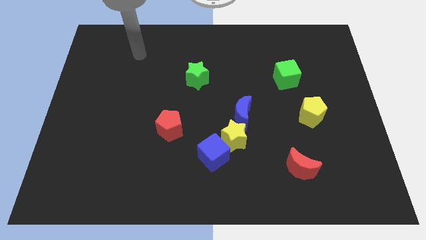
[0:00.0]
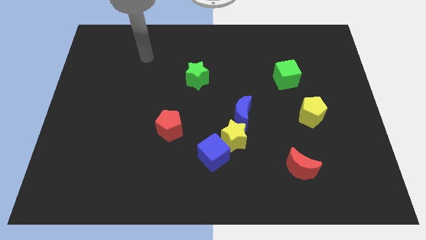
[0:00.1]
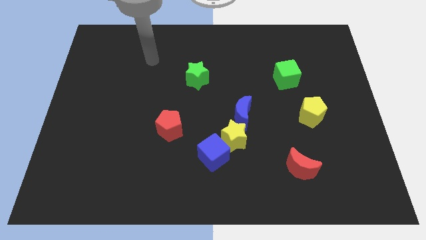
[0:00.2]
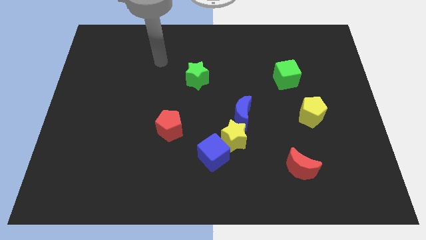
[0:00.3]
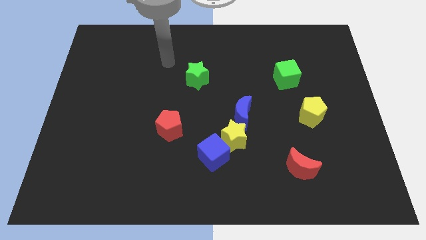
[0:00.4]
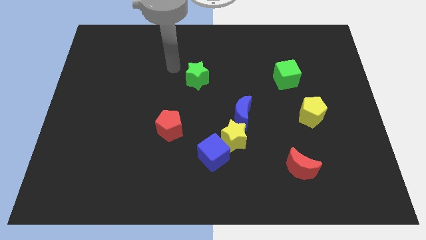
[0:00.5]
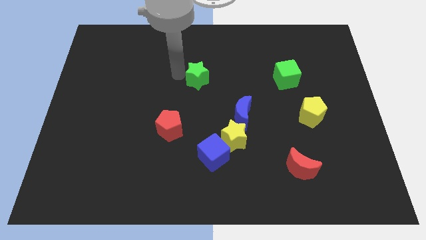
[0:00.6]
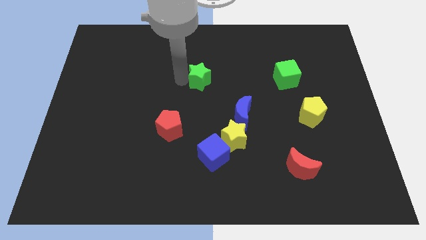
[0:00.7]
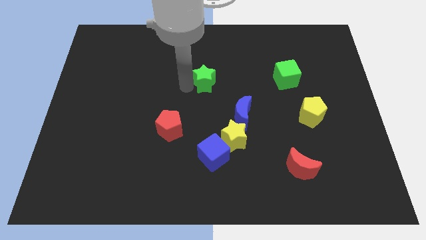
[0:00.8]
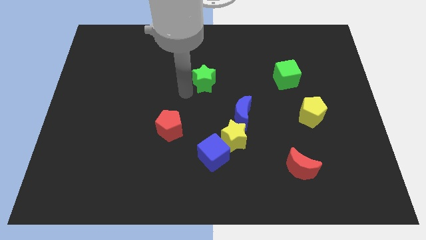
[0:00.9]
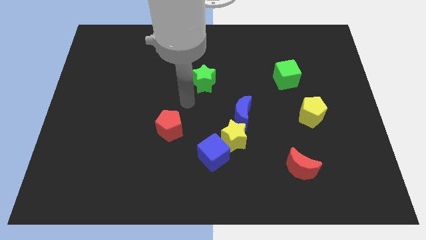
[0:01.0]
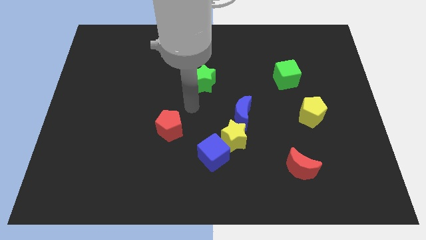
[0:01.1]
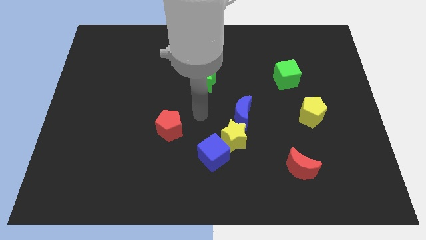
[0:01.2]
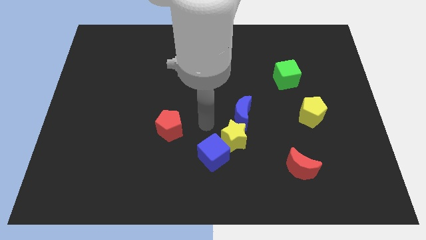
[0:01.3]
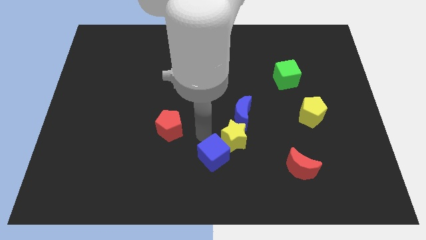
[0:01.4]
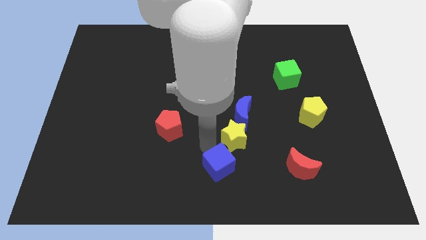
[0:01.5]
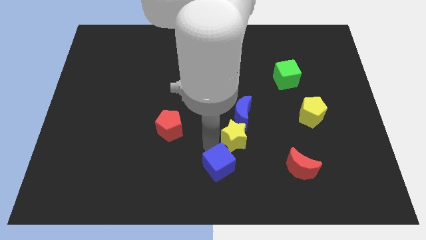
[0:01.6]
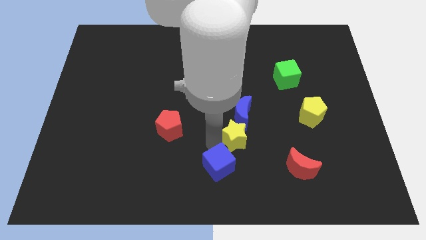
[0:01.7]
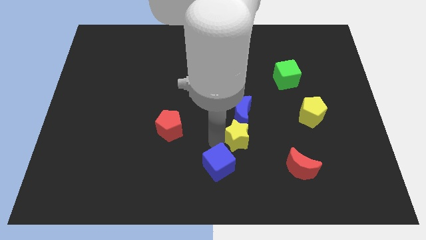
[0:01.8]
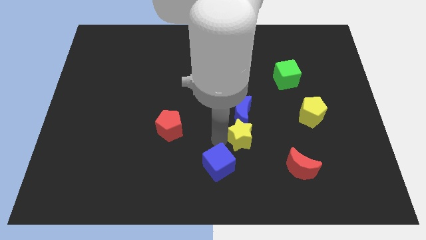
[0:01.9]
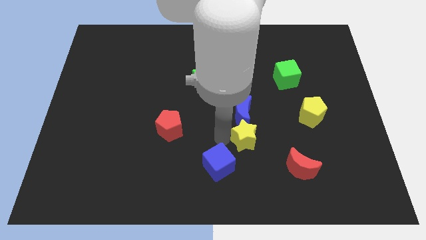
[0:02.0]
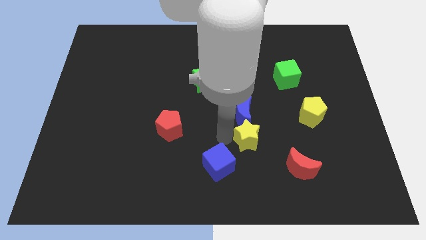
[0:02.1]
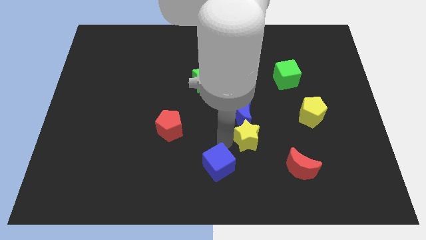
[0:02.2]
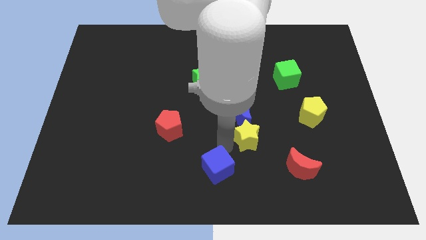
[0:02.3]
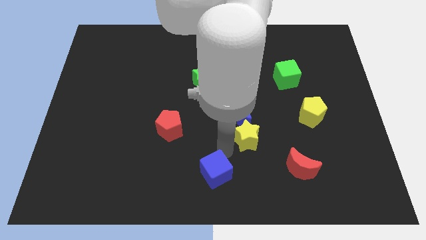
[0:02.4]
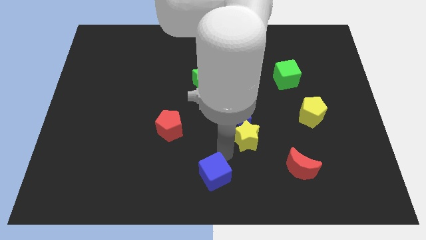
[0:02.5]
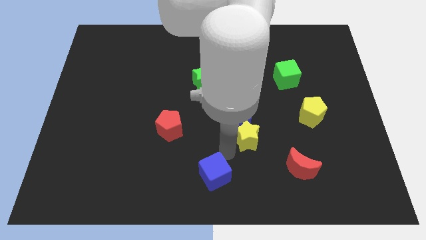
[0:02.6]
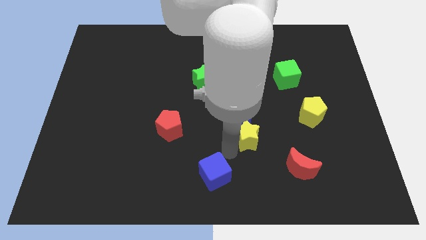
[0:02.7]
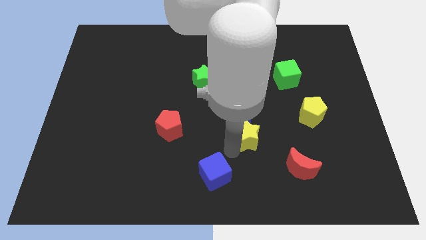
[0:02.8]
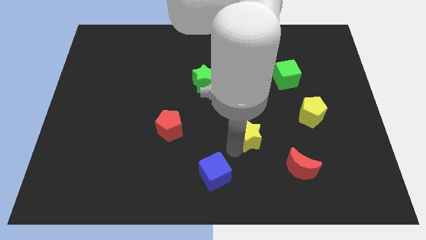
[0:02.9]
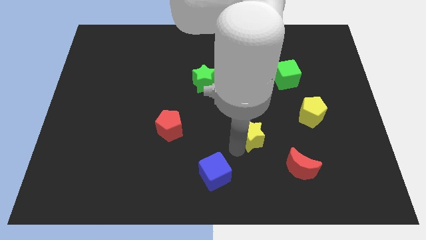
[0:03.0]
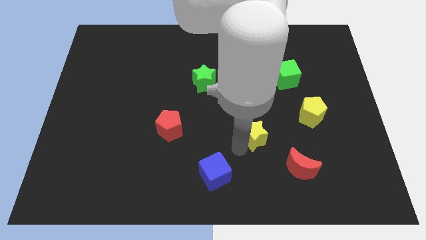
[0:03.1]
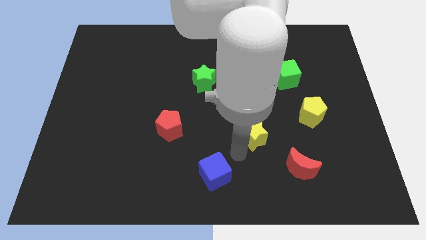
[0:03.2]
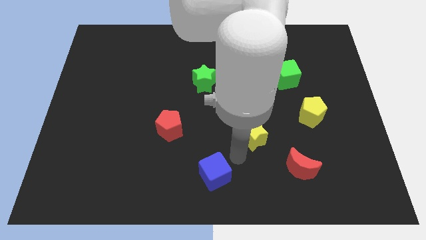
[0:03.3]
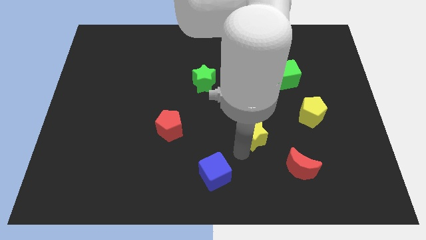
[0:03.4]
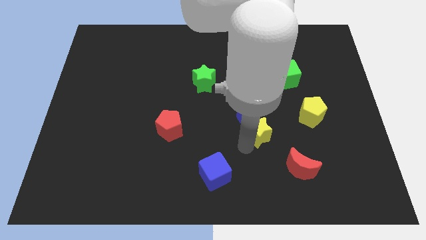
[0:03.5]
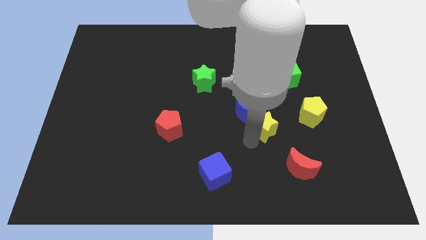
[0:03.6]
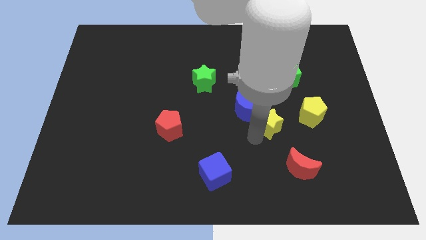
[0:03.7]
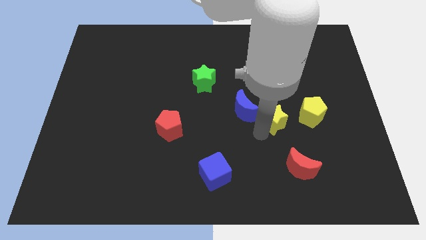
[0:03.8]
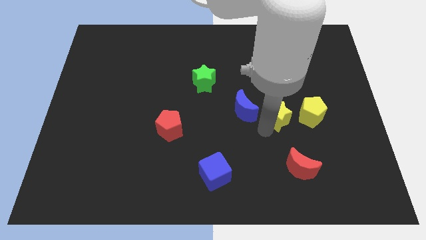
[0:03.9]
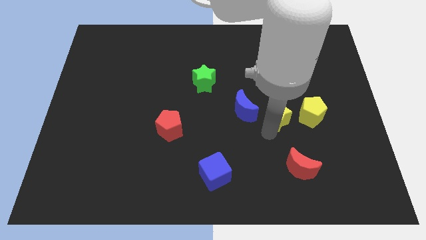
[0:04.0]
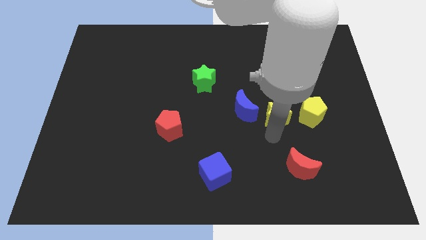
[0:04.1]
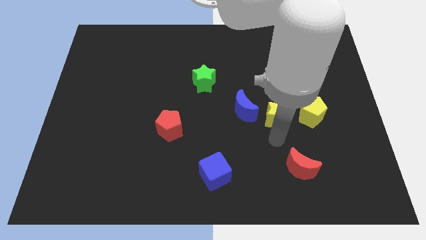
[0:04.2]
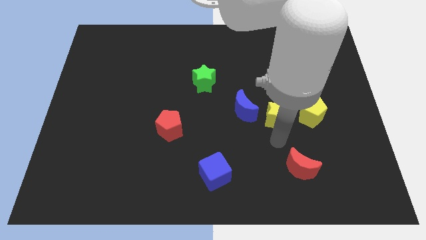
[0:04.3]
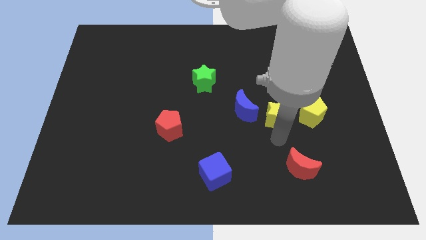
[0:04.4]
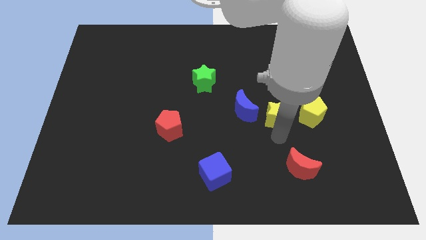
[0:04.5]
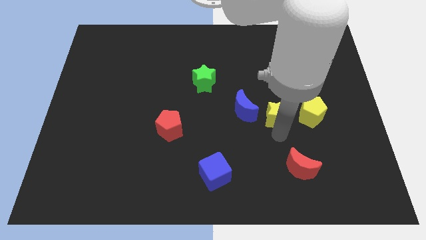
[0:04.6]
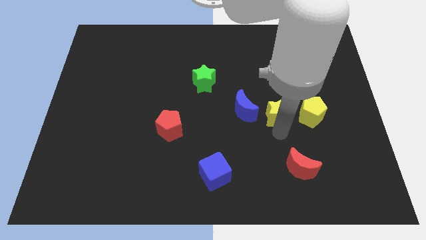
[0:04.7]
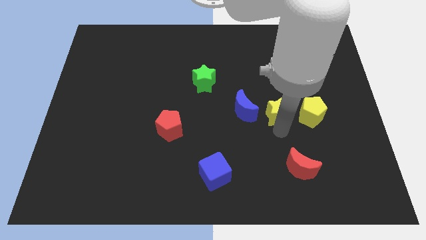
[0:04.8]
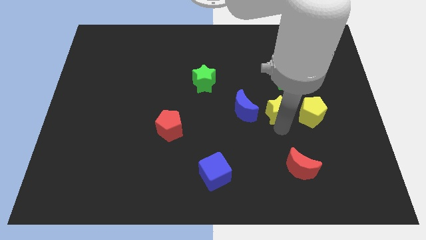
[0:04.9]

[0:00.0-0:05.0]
push the yellow star to the top left side of the yellow pentagon

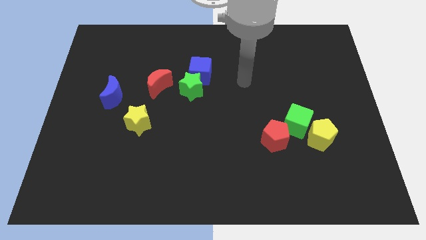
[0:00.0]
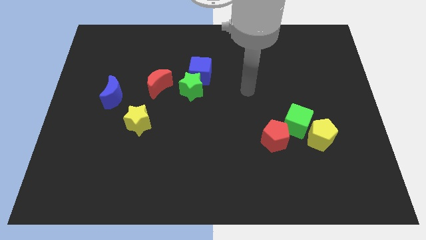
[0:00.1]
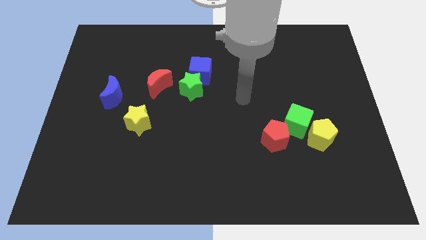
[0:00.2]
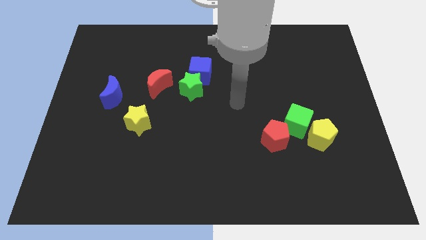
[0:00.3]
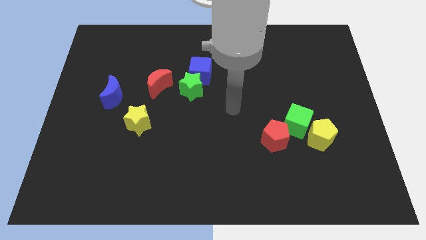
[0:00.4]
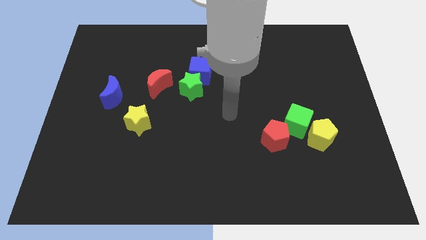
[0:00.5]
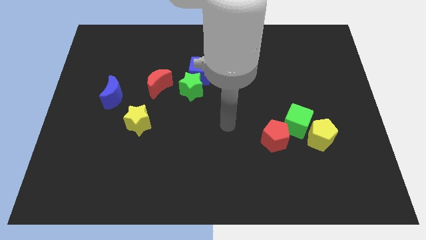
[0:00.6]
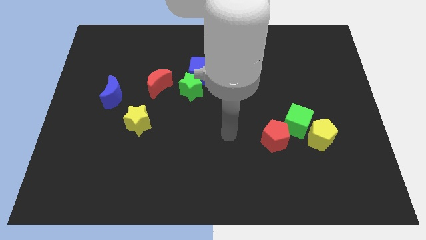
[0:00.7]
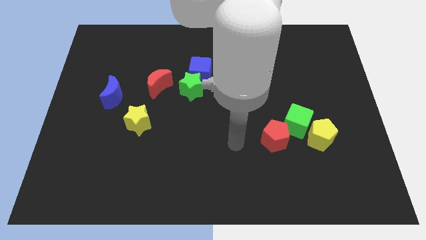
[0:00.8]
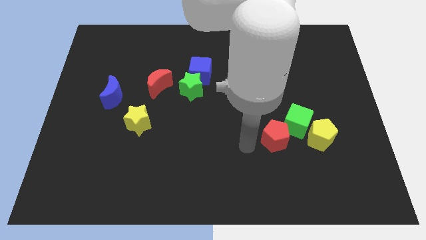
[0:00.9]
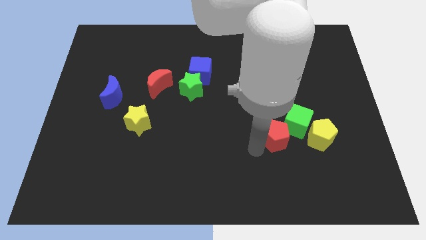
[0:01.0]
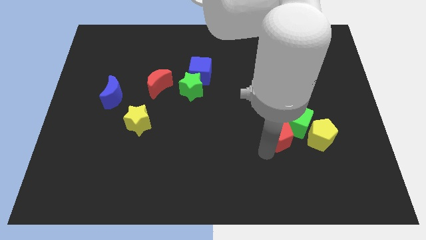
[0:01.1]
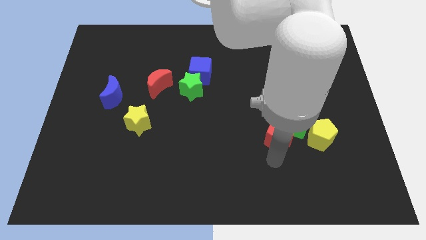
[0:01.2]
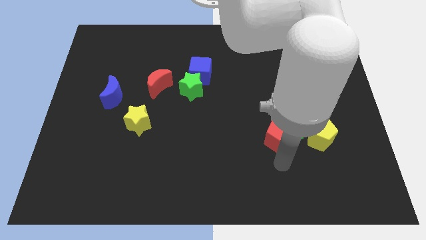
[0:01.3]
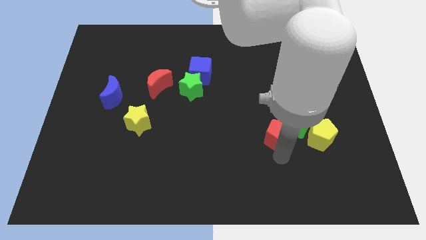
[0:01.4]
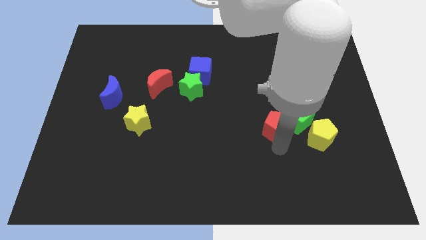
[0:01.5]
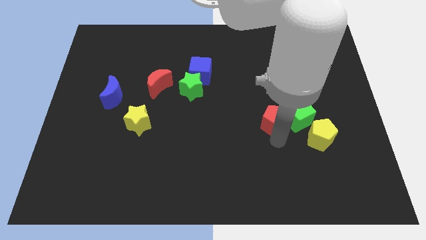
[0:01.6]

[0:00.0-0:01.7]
put the red pentagon to the top left of the green cube
